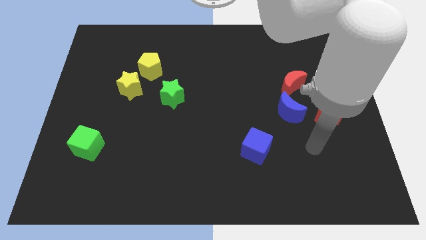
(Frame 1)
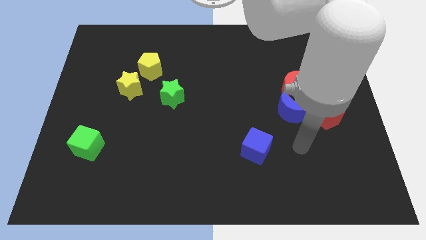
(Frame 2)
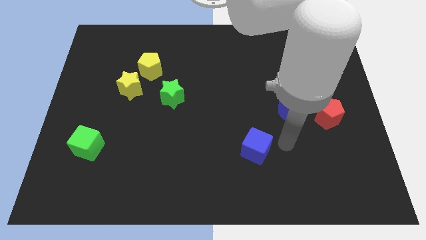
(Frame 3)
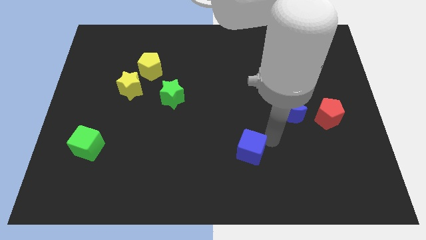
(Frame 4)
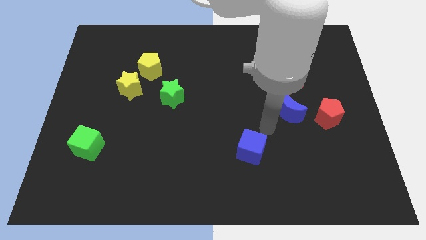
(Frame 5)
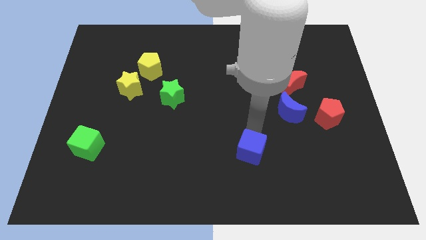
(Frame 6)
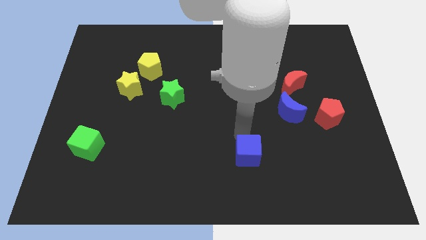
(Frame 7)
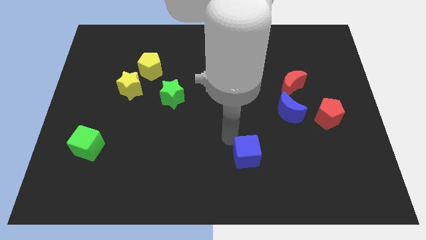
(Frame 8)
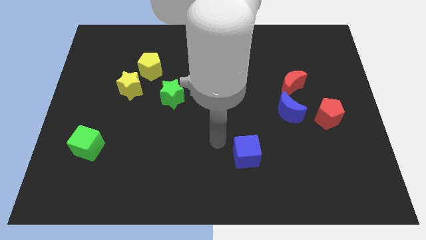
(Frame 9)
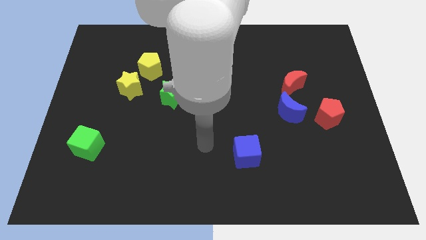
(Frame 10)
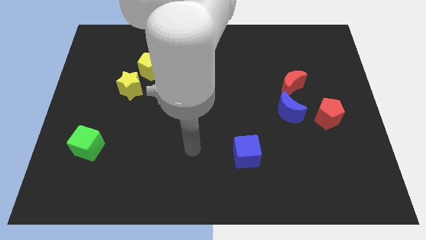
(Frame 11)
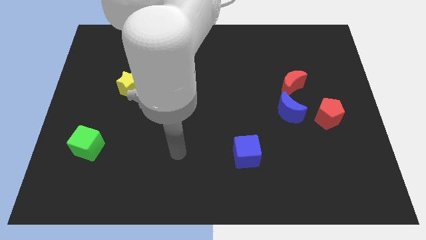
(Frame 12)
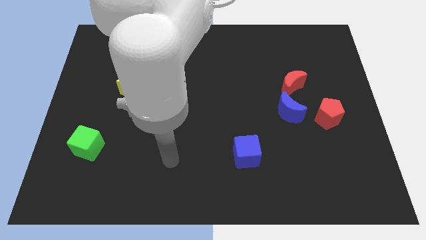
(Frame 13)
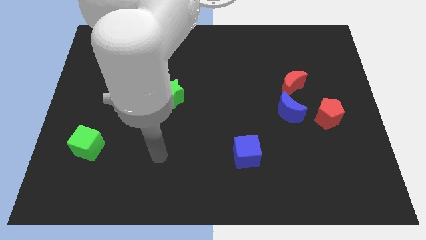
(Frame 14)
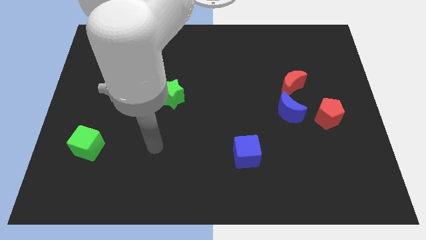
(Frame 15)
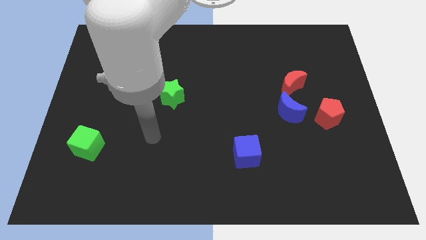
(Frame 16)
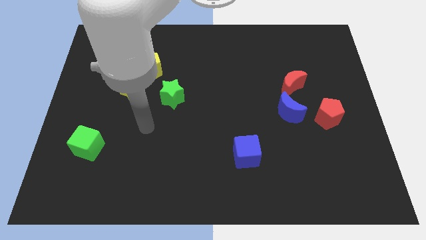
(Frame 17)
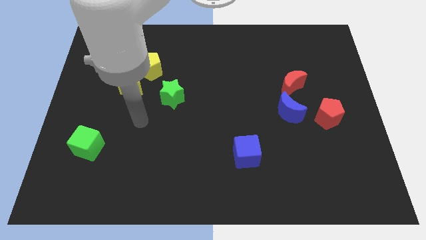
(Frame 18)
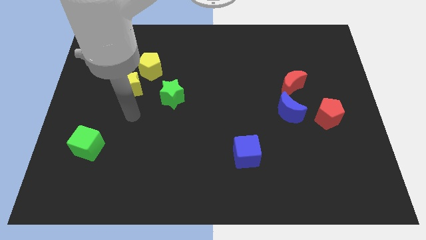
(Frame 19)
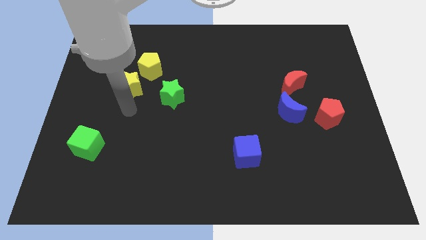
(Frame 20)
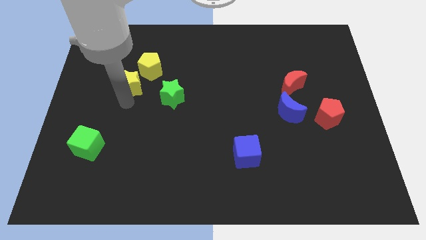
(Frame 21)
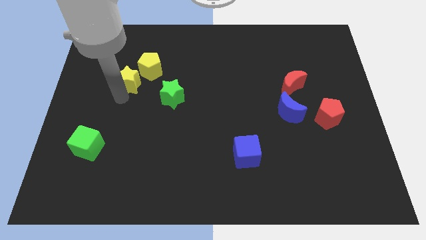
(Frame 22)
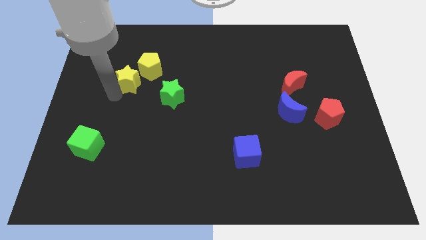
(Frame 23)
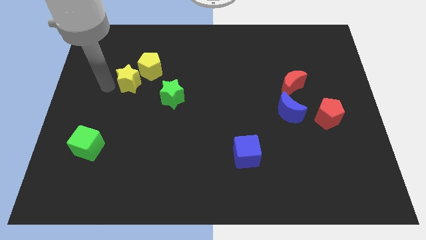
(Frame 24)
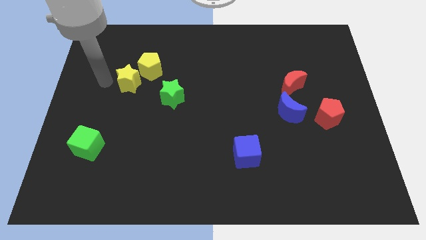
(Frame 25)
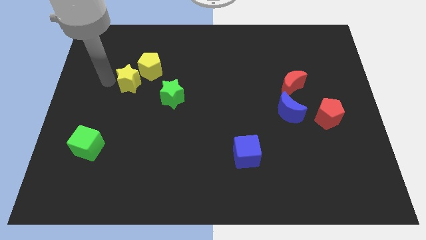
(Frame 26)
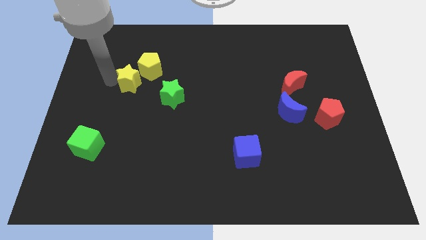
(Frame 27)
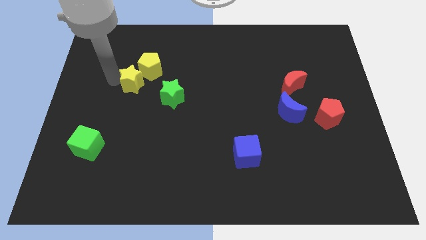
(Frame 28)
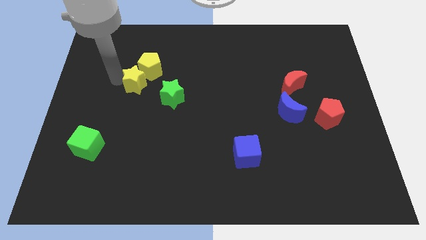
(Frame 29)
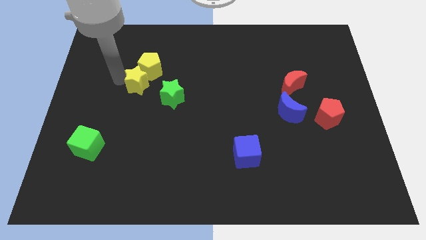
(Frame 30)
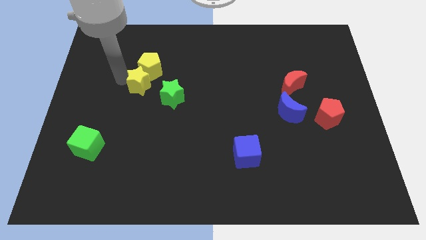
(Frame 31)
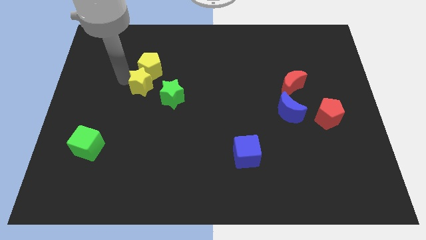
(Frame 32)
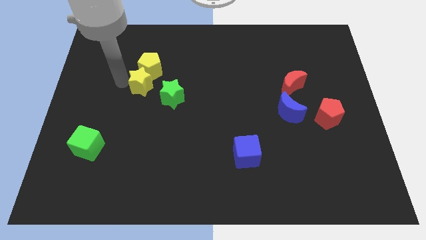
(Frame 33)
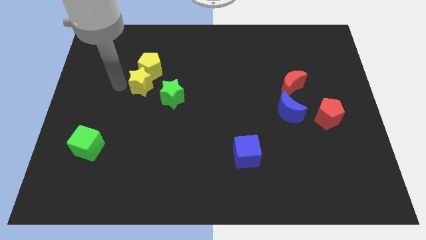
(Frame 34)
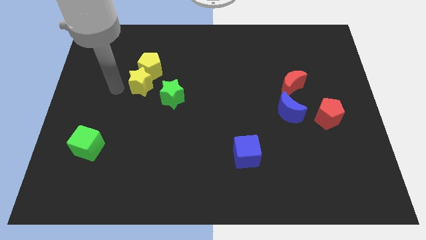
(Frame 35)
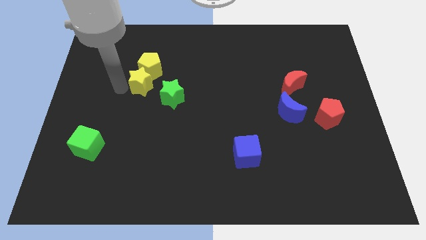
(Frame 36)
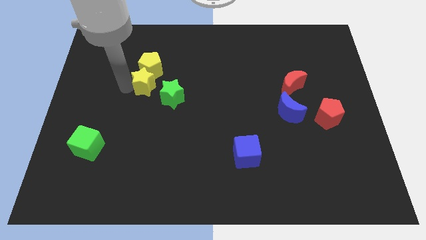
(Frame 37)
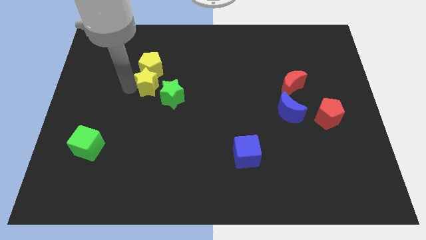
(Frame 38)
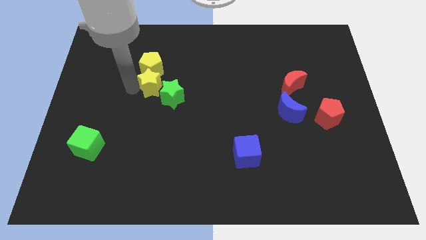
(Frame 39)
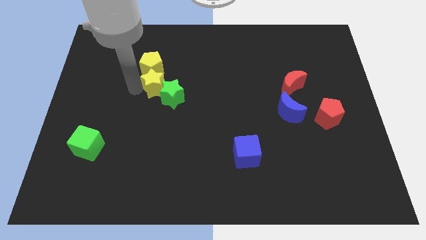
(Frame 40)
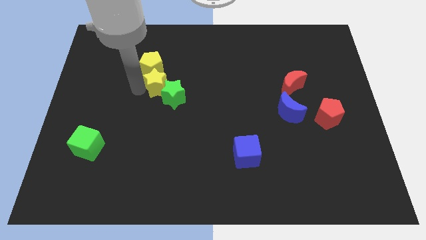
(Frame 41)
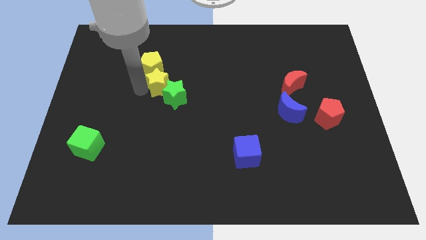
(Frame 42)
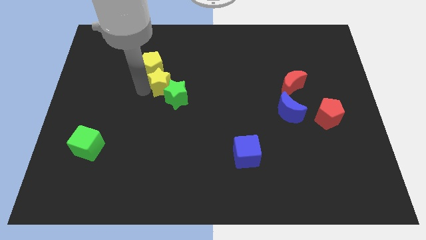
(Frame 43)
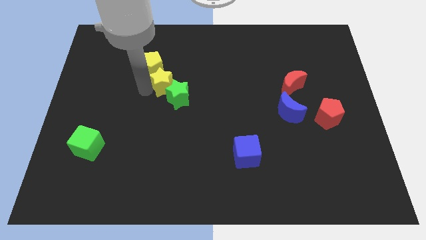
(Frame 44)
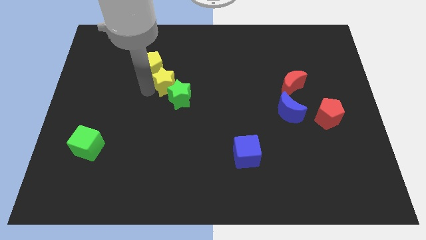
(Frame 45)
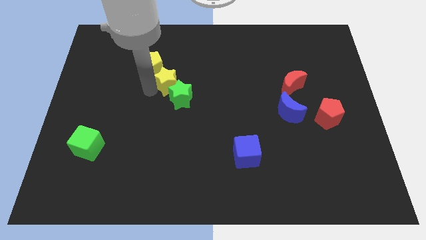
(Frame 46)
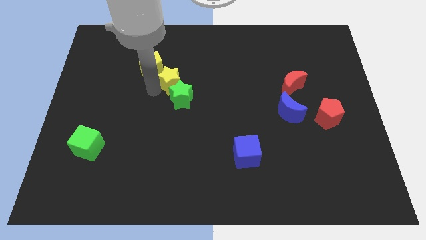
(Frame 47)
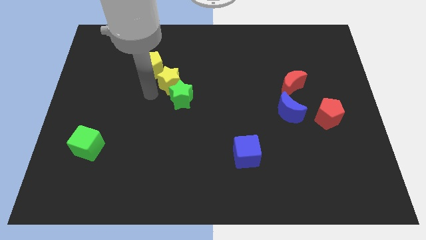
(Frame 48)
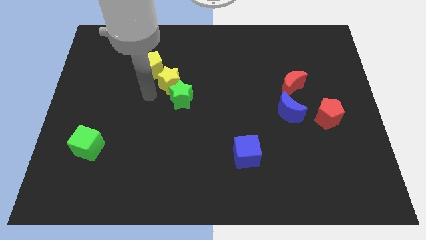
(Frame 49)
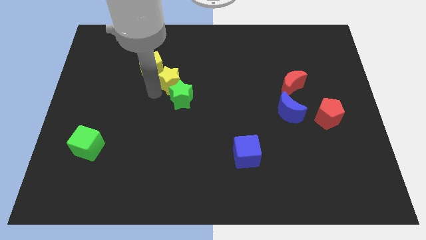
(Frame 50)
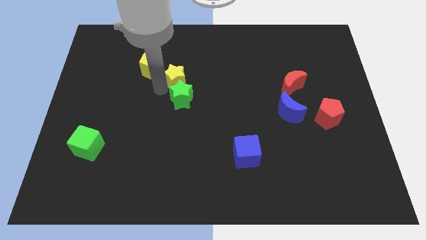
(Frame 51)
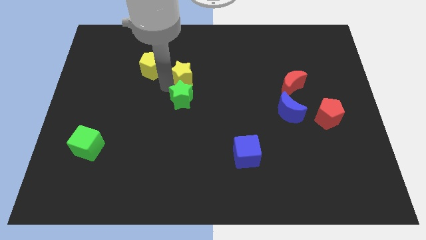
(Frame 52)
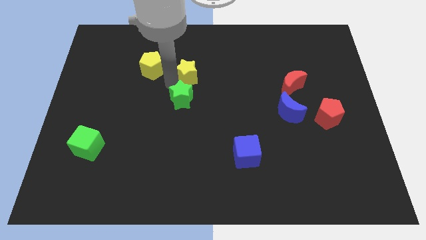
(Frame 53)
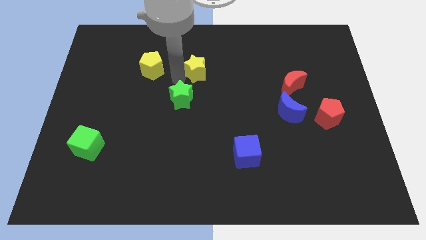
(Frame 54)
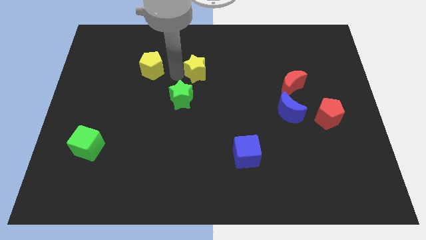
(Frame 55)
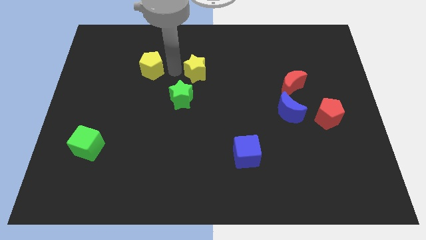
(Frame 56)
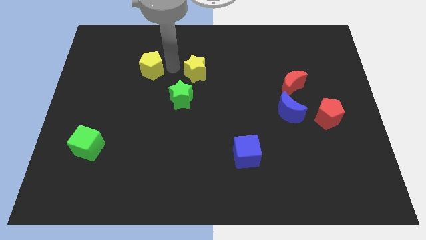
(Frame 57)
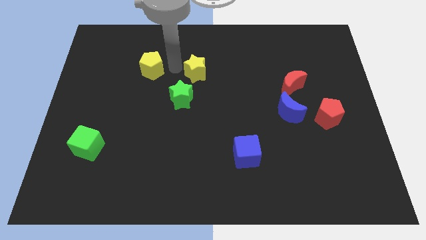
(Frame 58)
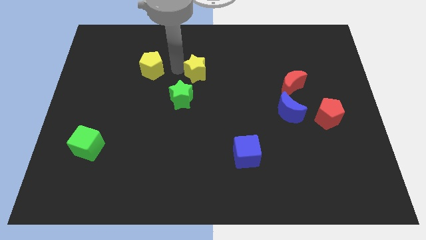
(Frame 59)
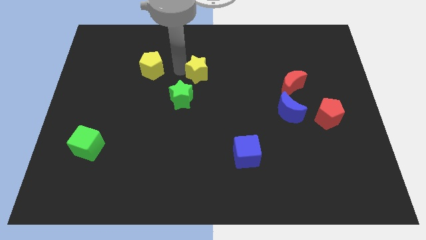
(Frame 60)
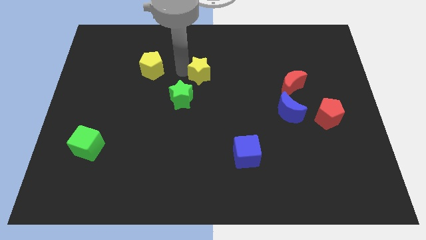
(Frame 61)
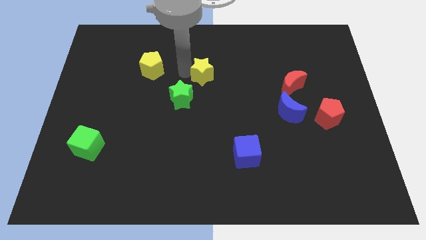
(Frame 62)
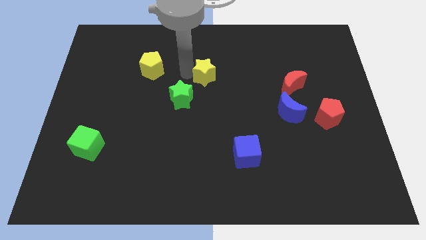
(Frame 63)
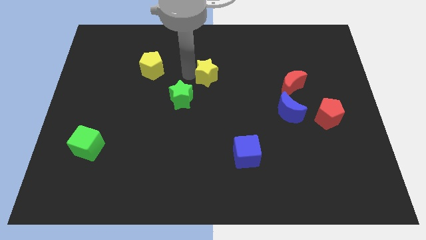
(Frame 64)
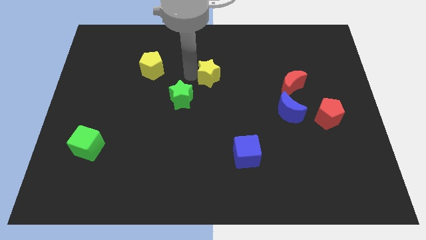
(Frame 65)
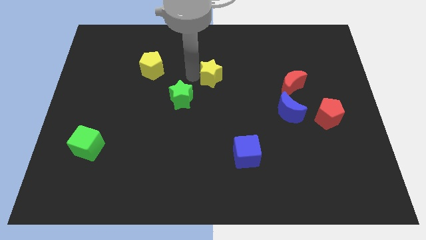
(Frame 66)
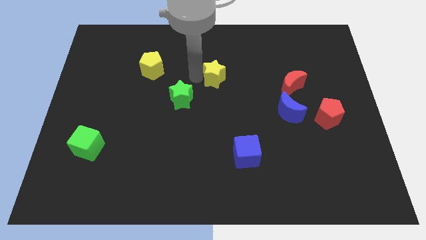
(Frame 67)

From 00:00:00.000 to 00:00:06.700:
move the yellow star to the right

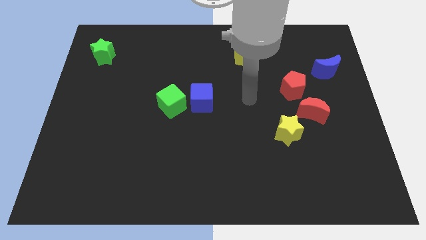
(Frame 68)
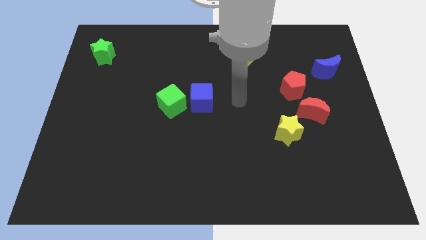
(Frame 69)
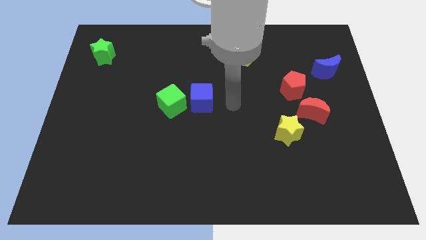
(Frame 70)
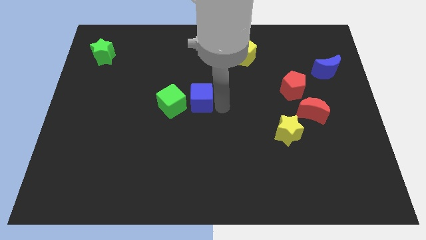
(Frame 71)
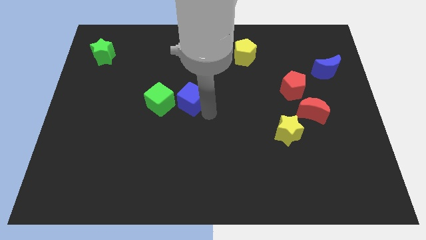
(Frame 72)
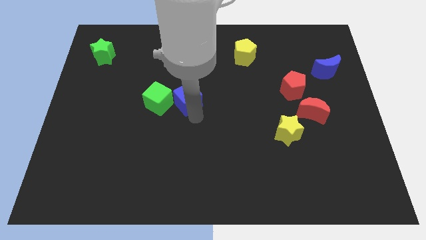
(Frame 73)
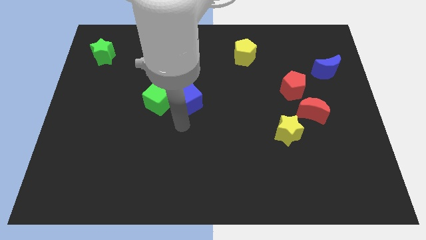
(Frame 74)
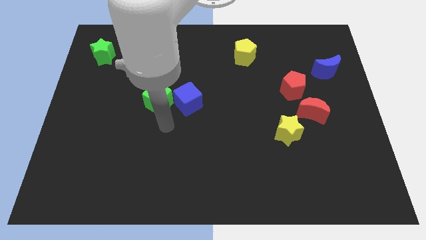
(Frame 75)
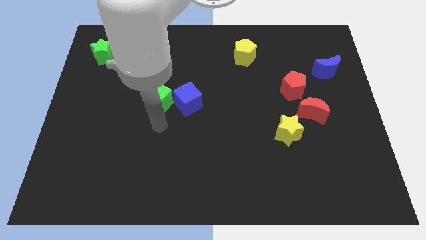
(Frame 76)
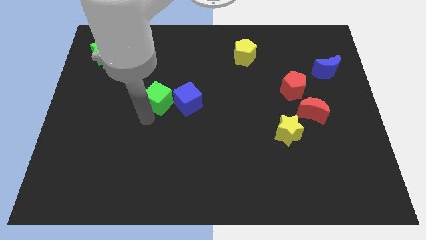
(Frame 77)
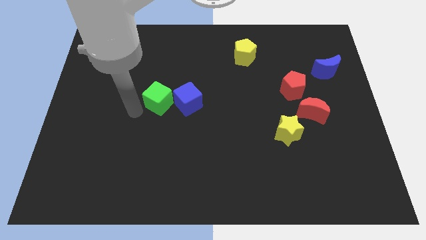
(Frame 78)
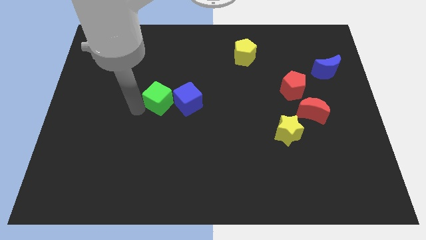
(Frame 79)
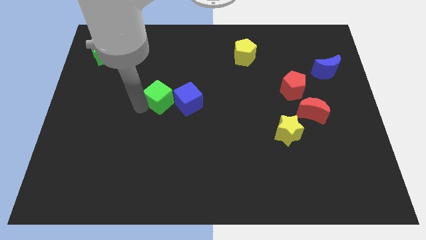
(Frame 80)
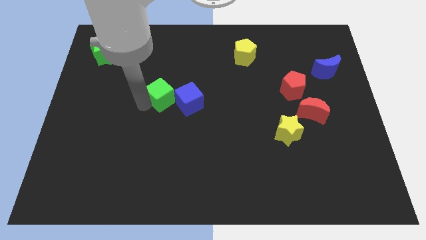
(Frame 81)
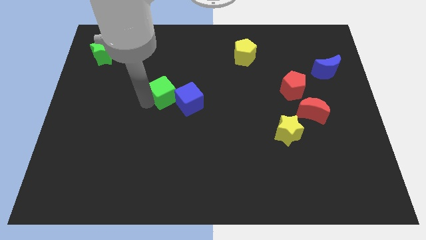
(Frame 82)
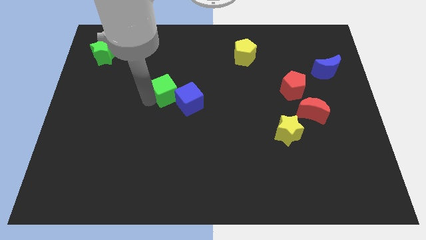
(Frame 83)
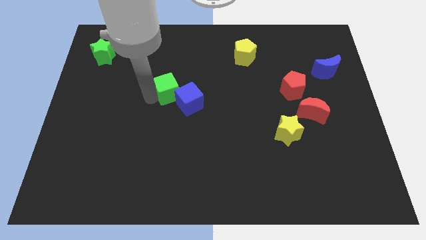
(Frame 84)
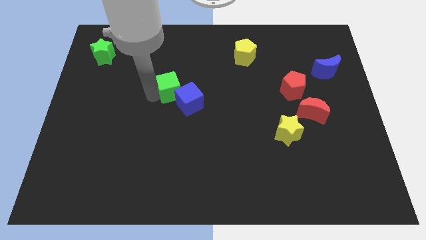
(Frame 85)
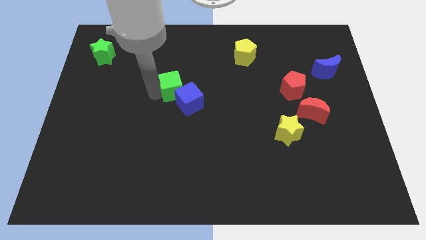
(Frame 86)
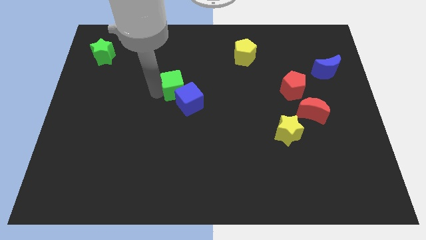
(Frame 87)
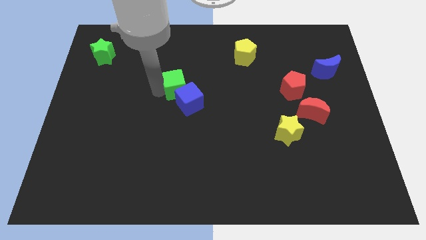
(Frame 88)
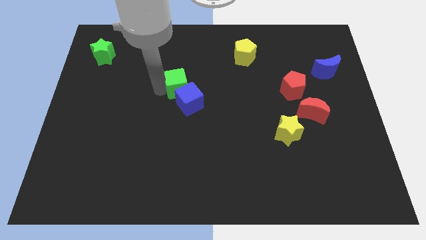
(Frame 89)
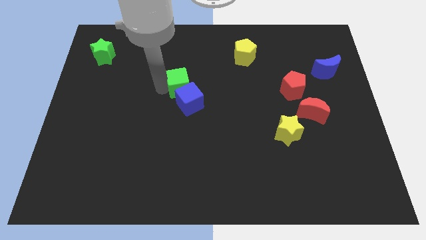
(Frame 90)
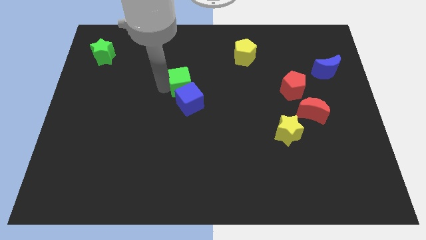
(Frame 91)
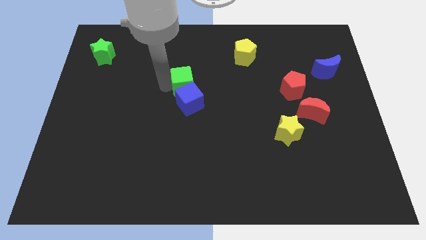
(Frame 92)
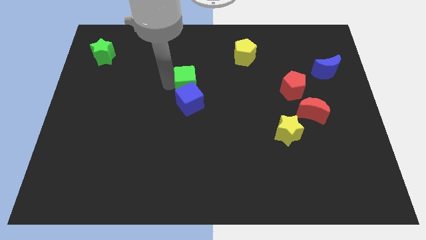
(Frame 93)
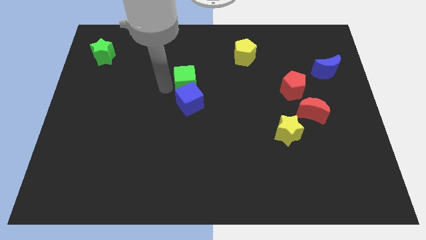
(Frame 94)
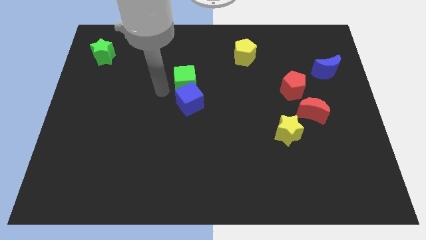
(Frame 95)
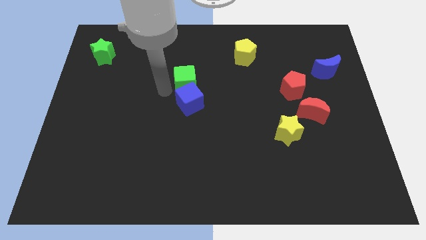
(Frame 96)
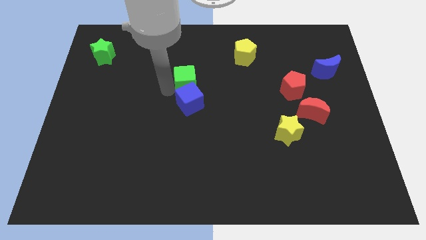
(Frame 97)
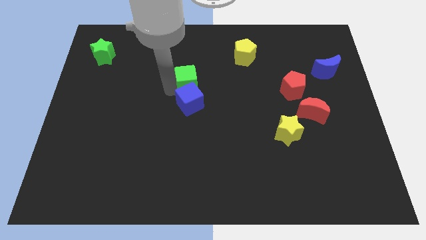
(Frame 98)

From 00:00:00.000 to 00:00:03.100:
slightly push the green cube upwards and to the right diagonally
